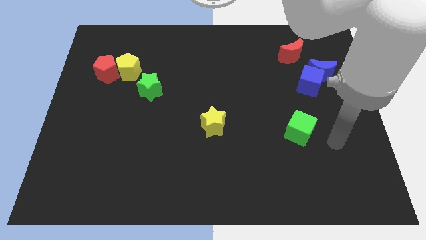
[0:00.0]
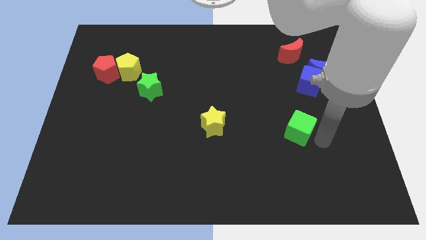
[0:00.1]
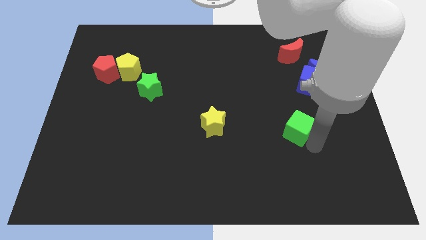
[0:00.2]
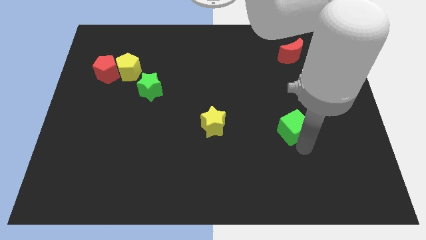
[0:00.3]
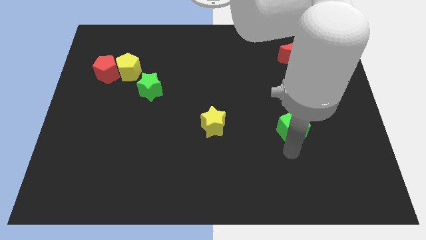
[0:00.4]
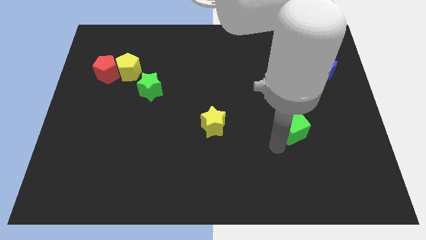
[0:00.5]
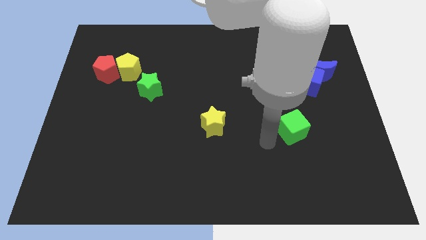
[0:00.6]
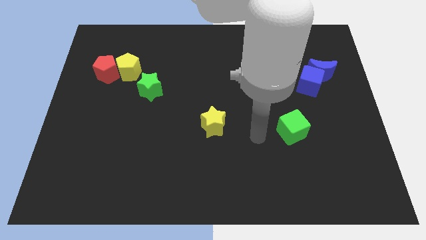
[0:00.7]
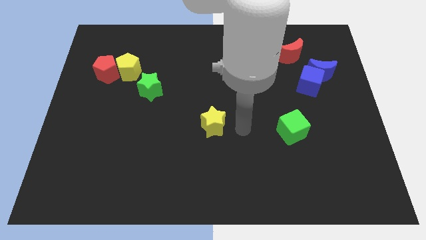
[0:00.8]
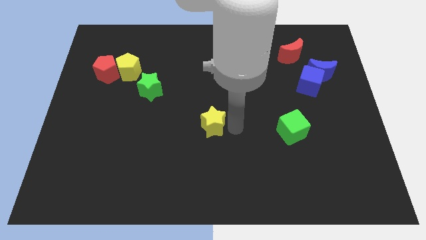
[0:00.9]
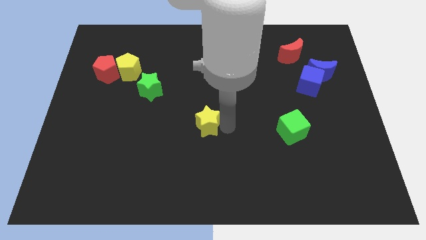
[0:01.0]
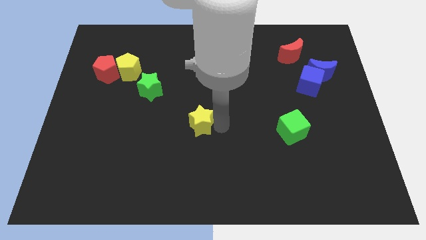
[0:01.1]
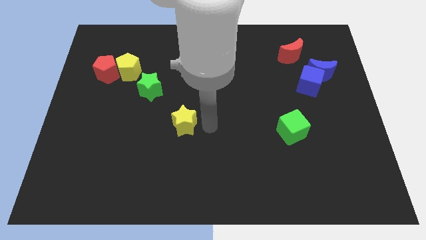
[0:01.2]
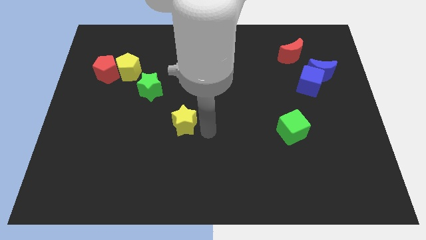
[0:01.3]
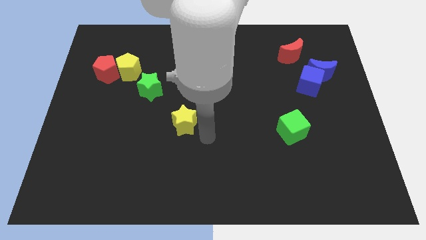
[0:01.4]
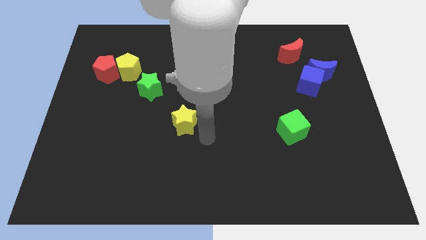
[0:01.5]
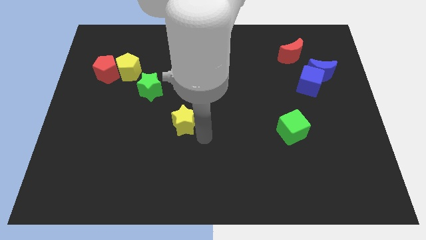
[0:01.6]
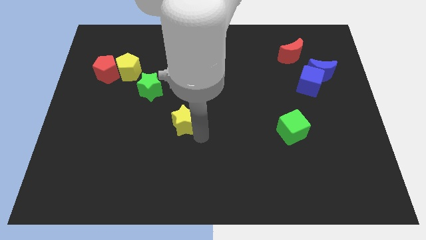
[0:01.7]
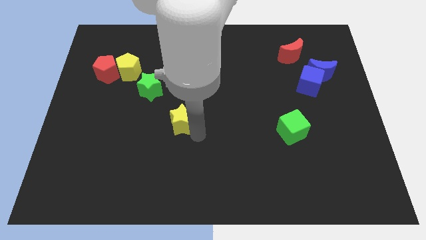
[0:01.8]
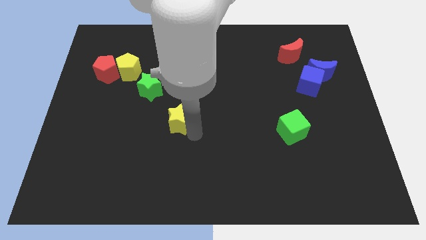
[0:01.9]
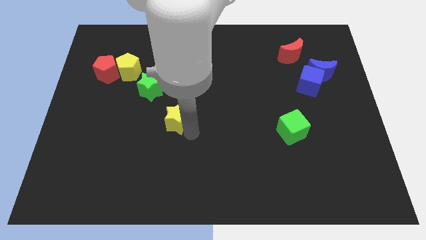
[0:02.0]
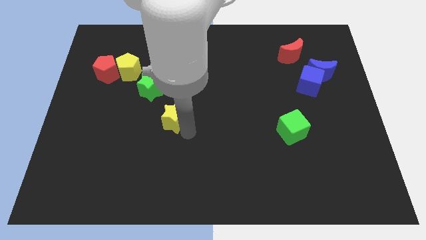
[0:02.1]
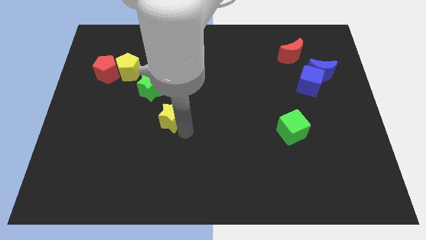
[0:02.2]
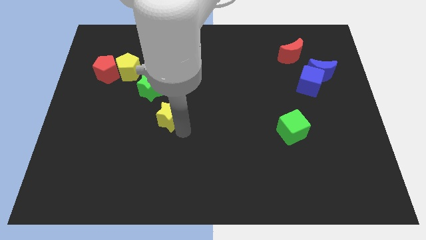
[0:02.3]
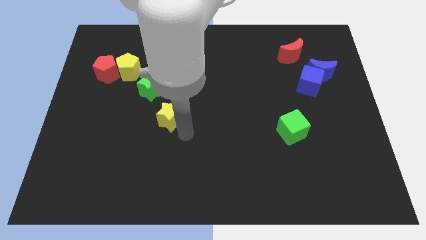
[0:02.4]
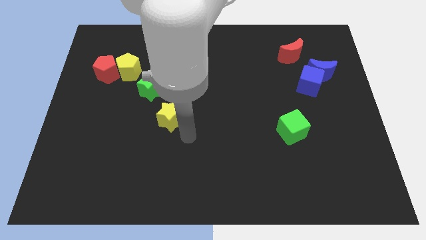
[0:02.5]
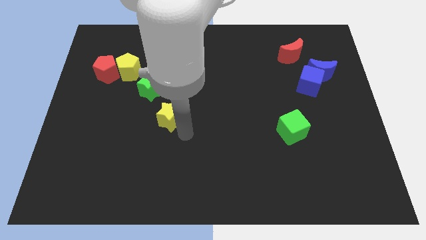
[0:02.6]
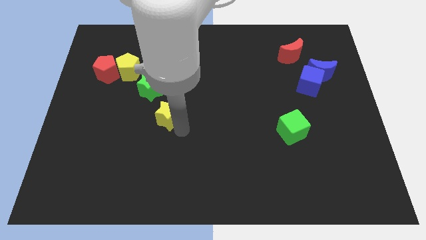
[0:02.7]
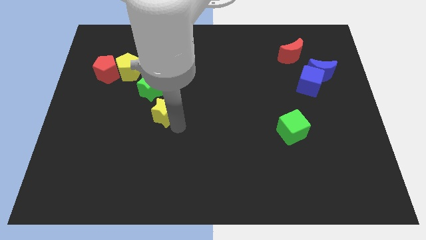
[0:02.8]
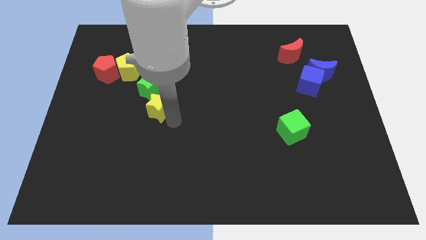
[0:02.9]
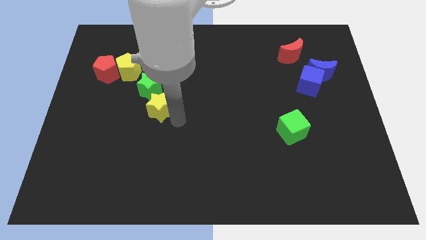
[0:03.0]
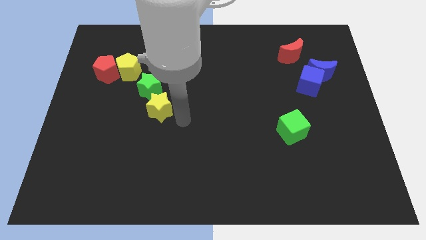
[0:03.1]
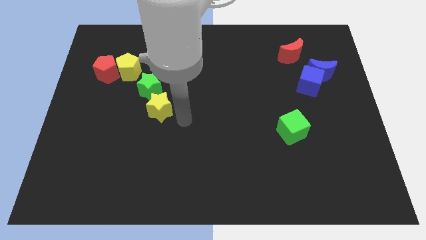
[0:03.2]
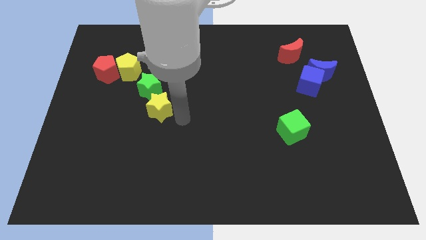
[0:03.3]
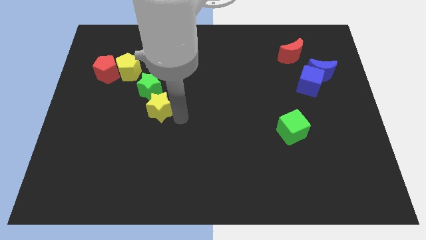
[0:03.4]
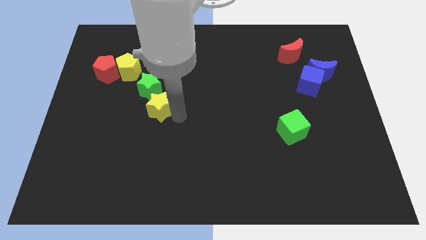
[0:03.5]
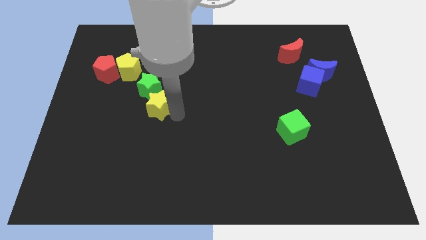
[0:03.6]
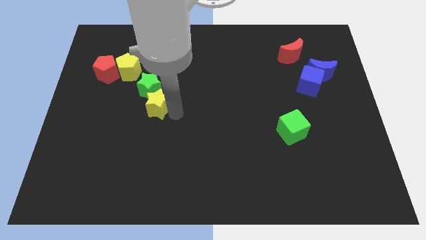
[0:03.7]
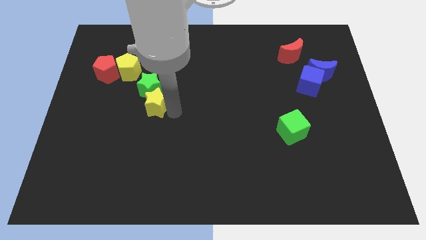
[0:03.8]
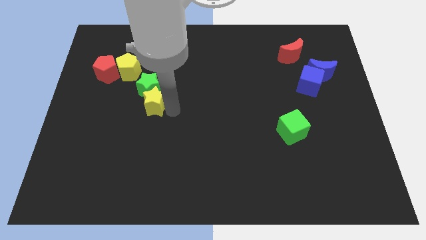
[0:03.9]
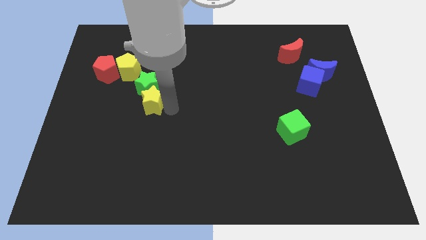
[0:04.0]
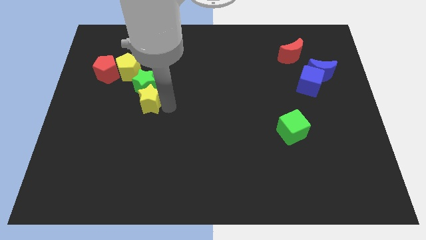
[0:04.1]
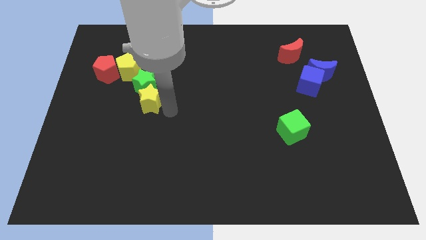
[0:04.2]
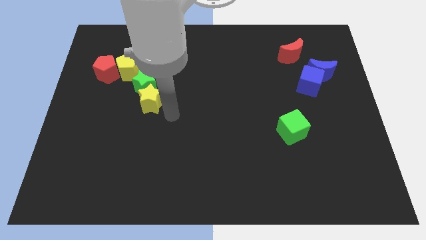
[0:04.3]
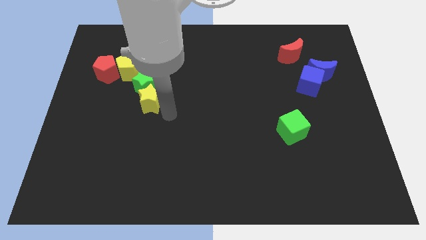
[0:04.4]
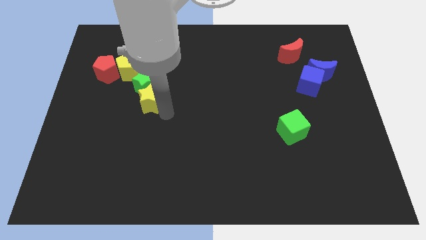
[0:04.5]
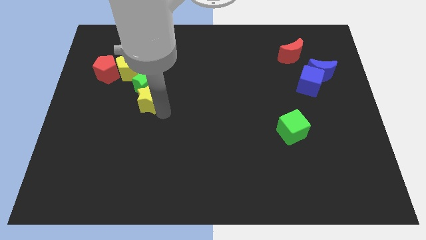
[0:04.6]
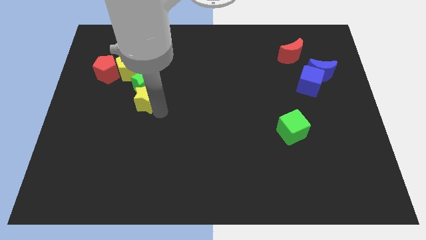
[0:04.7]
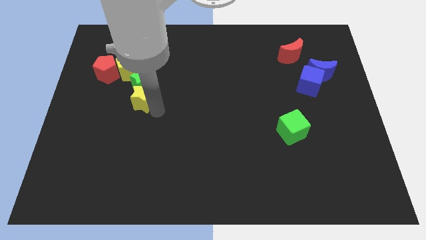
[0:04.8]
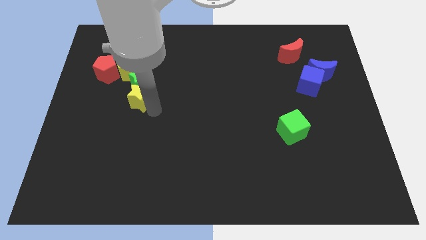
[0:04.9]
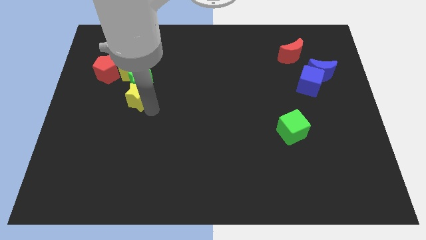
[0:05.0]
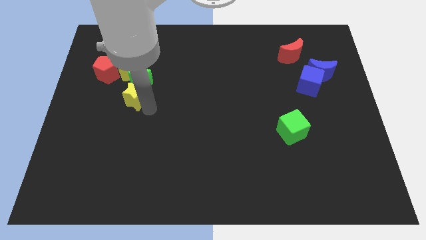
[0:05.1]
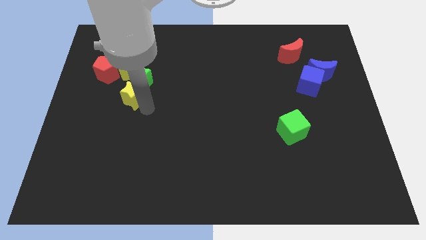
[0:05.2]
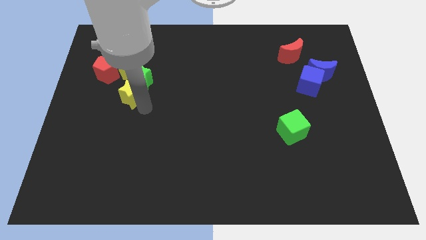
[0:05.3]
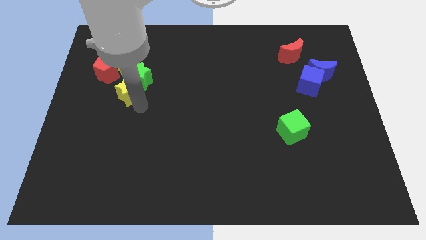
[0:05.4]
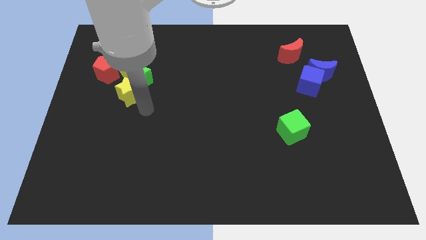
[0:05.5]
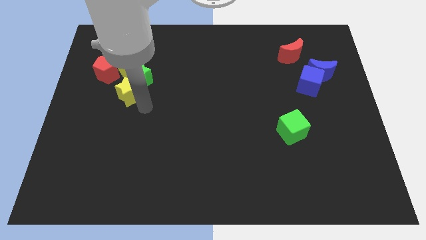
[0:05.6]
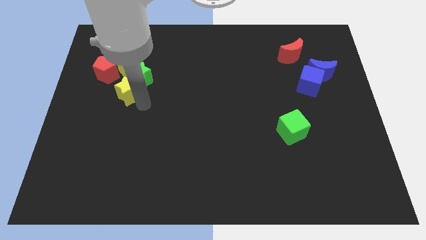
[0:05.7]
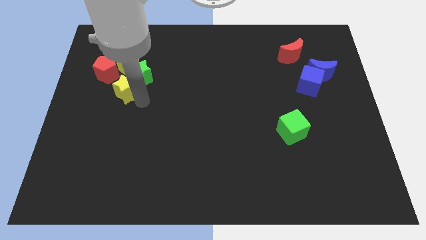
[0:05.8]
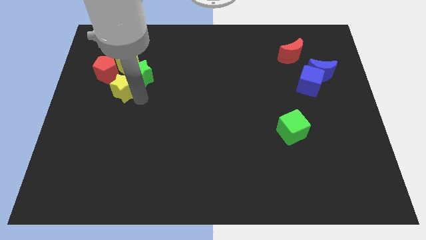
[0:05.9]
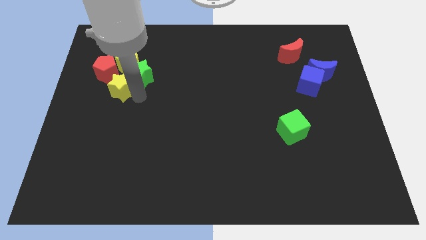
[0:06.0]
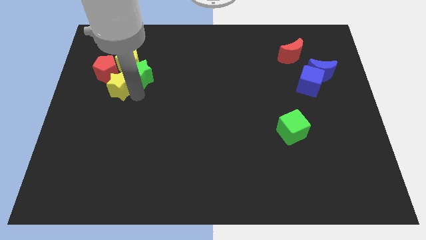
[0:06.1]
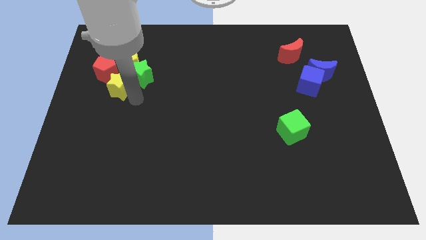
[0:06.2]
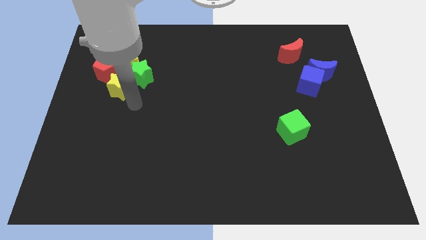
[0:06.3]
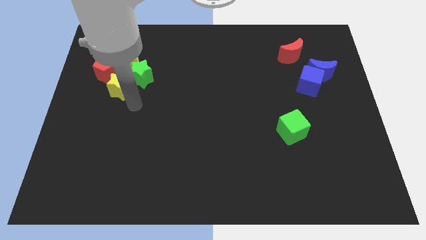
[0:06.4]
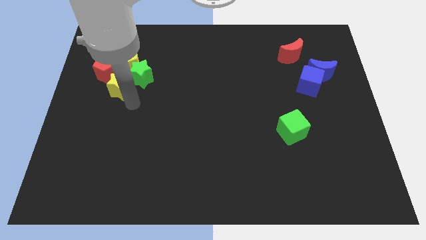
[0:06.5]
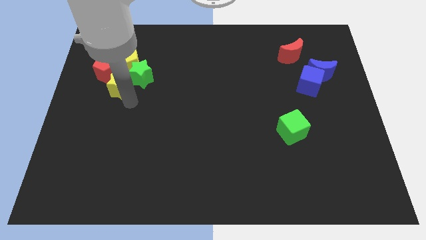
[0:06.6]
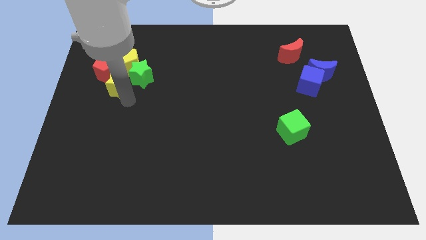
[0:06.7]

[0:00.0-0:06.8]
move the yellow star close to the red pentagon

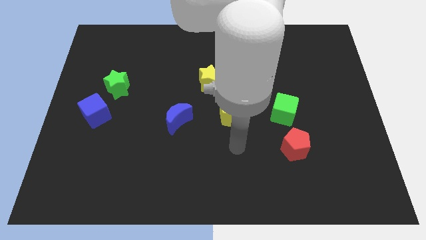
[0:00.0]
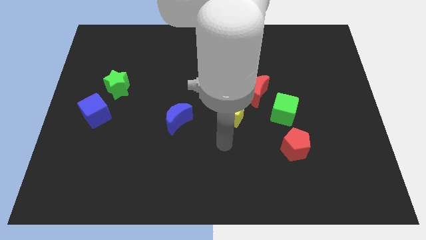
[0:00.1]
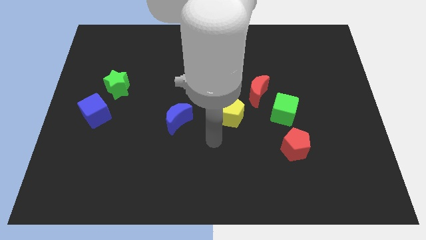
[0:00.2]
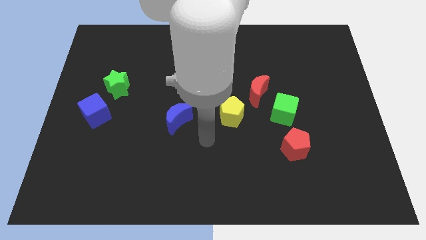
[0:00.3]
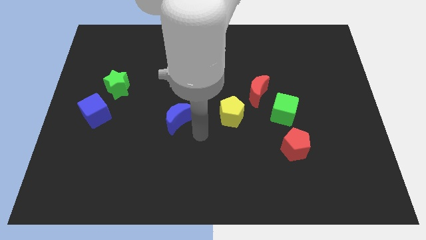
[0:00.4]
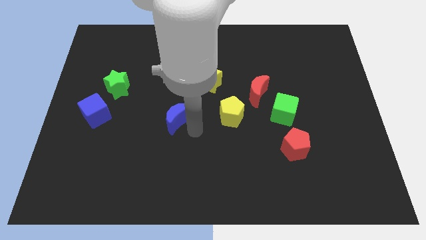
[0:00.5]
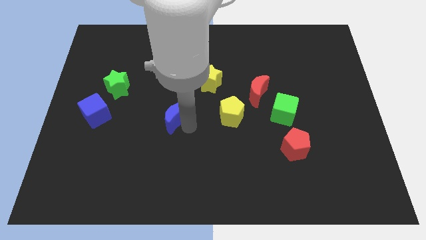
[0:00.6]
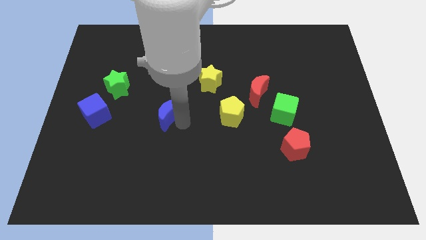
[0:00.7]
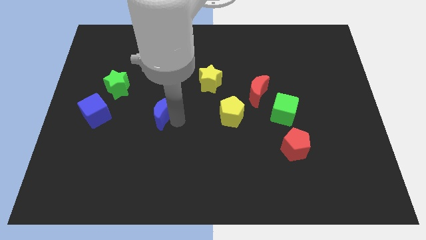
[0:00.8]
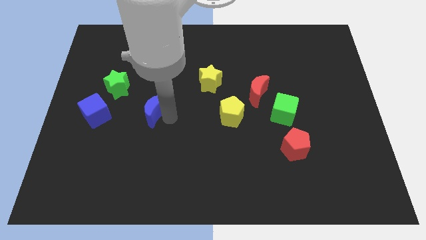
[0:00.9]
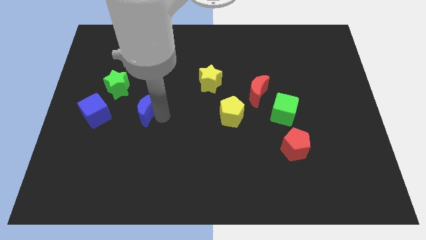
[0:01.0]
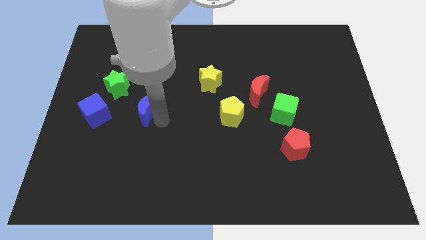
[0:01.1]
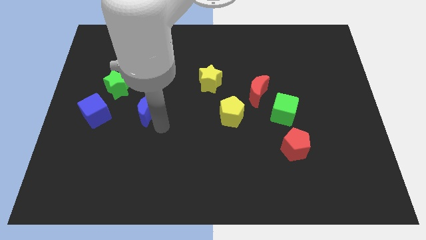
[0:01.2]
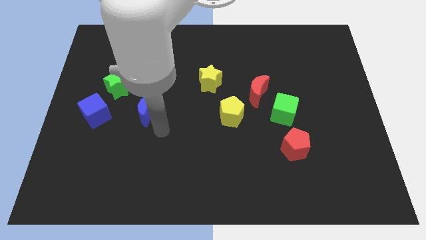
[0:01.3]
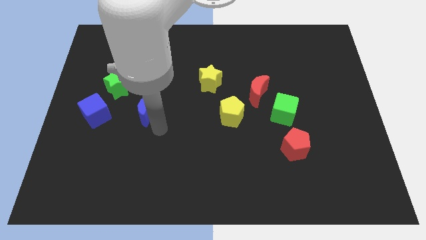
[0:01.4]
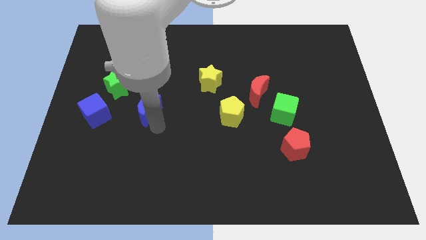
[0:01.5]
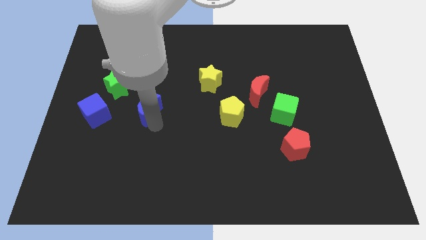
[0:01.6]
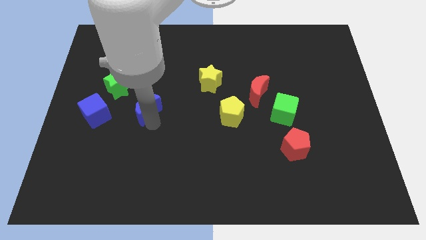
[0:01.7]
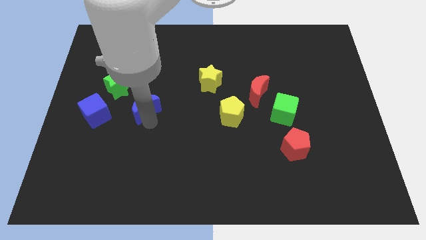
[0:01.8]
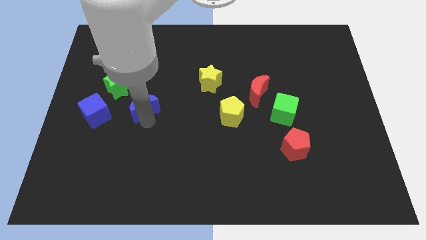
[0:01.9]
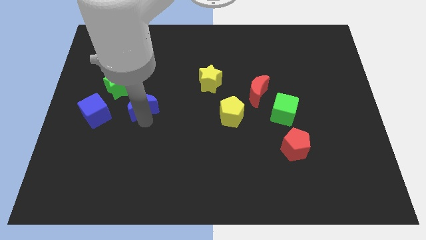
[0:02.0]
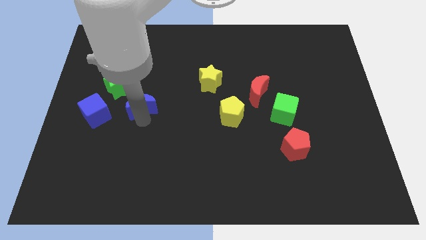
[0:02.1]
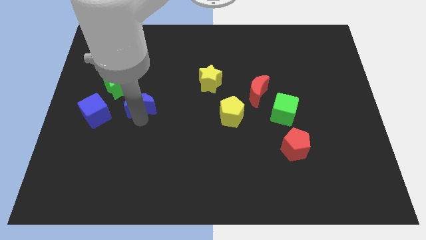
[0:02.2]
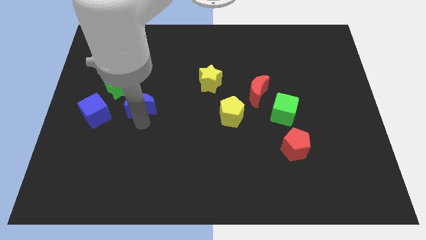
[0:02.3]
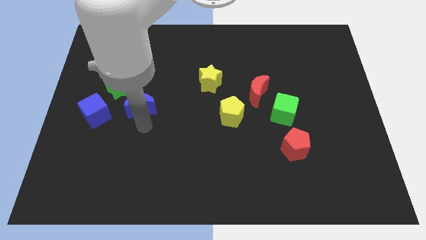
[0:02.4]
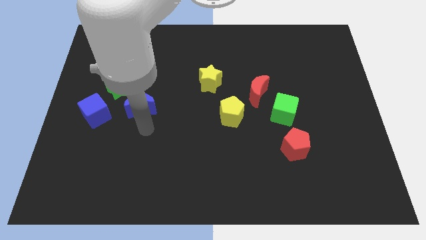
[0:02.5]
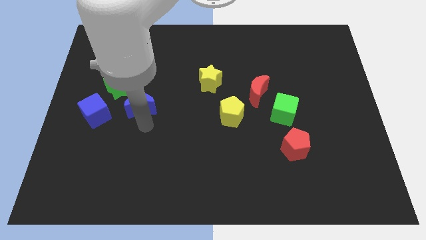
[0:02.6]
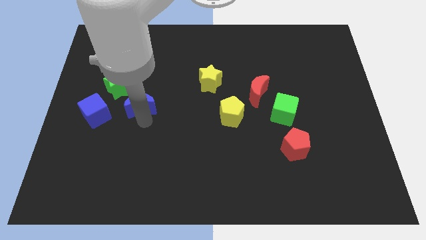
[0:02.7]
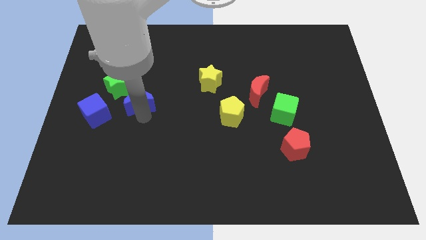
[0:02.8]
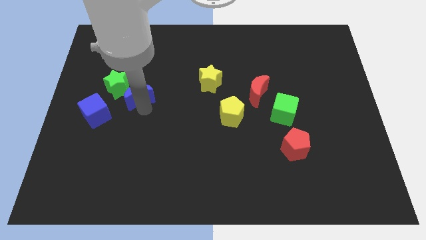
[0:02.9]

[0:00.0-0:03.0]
move the blue moon towards the green star
